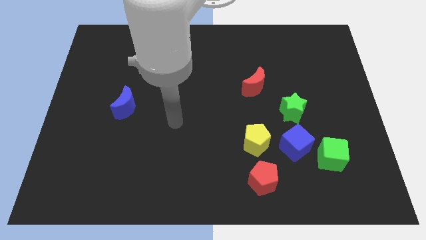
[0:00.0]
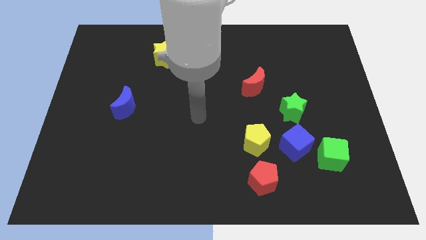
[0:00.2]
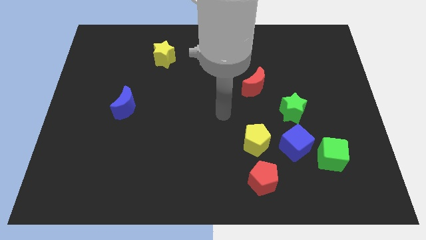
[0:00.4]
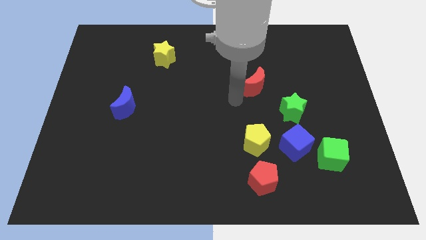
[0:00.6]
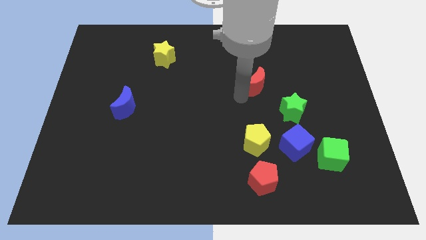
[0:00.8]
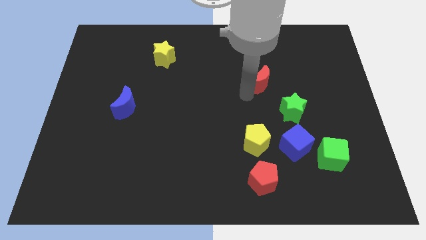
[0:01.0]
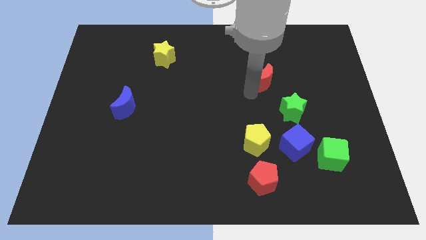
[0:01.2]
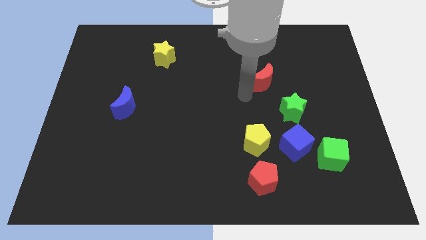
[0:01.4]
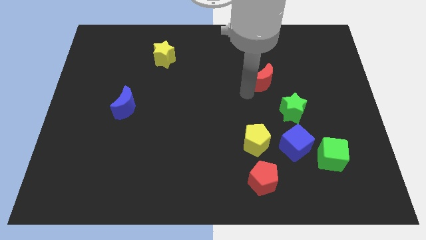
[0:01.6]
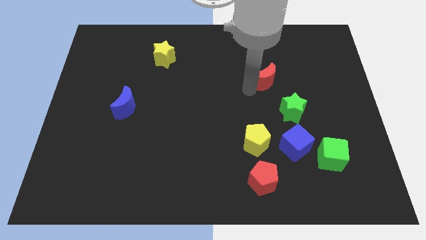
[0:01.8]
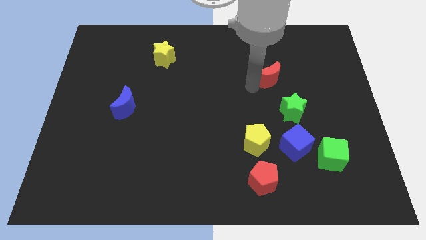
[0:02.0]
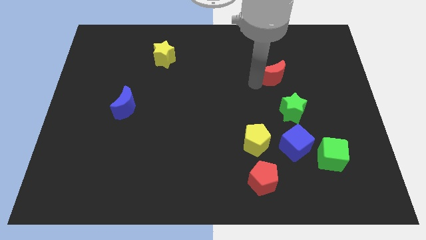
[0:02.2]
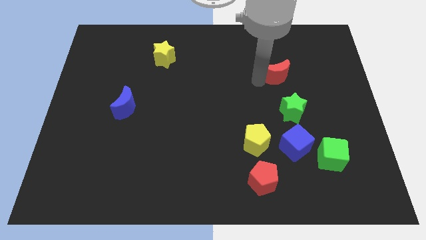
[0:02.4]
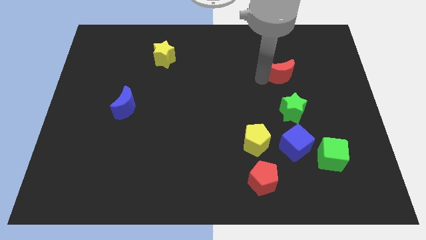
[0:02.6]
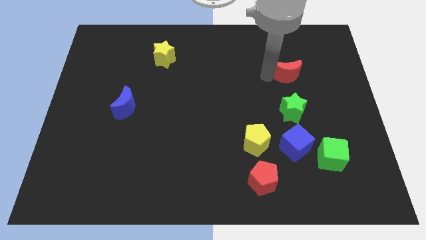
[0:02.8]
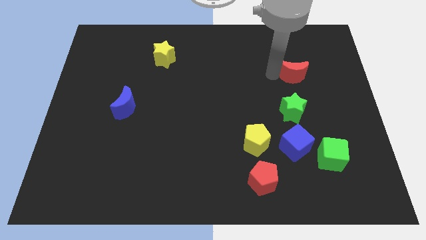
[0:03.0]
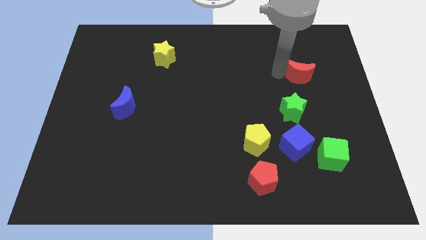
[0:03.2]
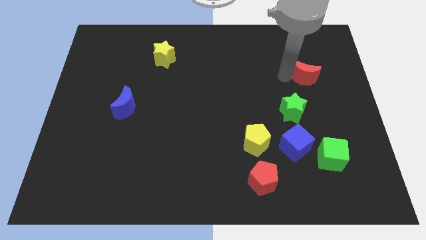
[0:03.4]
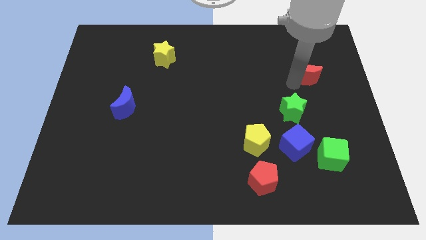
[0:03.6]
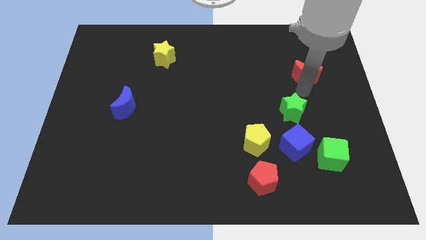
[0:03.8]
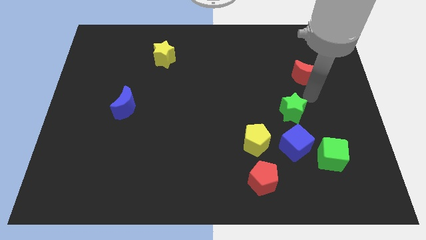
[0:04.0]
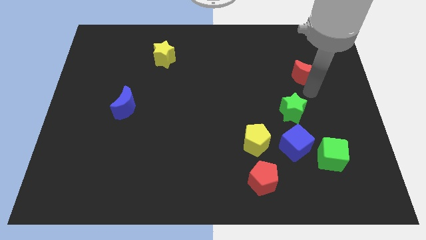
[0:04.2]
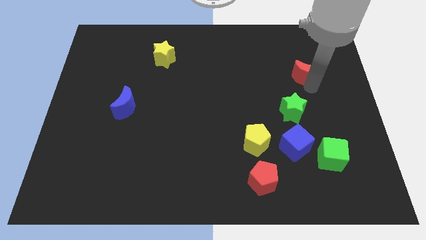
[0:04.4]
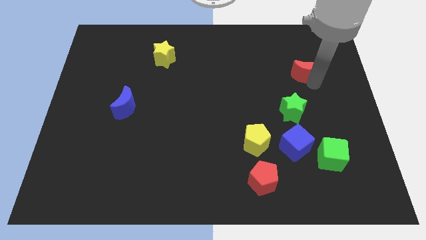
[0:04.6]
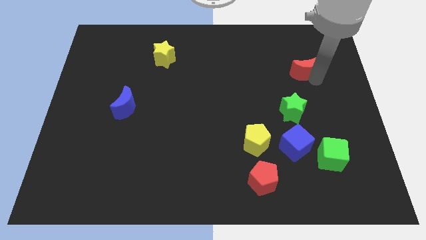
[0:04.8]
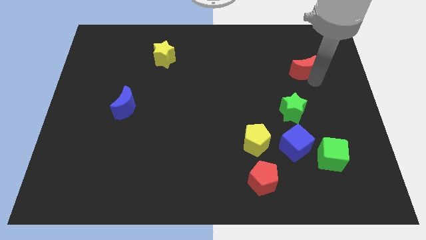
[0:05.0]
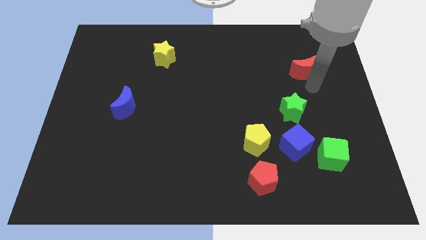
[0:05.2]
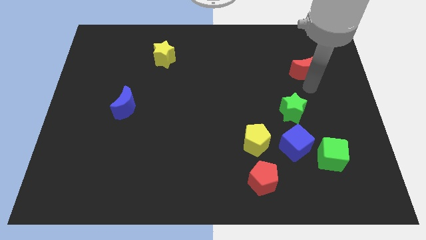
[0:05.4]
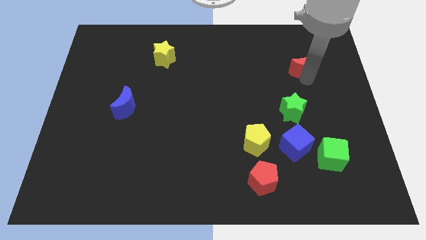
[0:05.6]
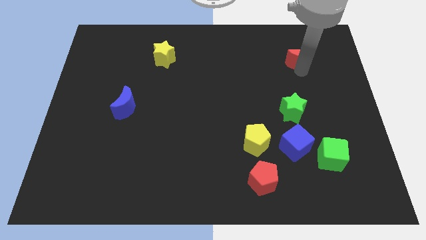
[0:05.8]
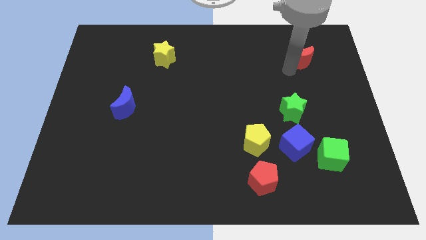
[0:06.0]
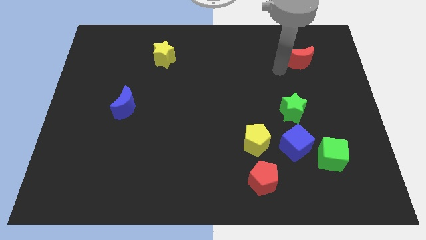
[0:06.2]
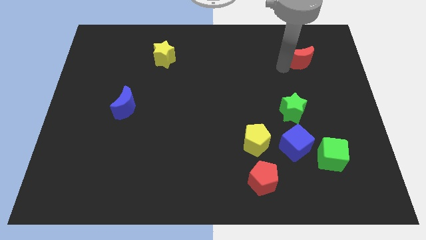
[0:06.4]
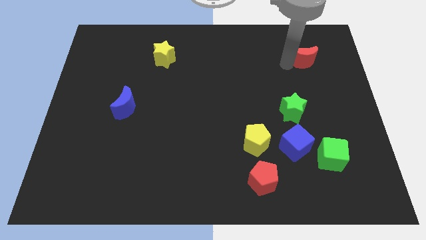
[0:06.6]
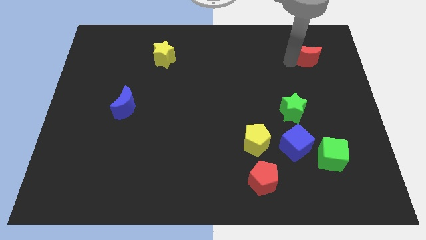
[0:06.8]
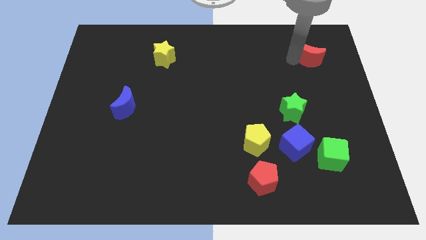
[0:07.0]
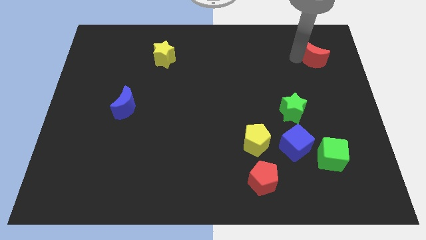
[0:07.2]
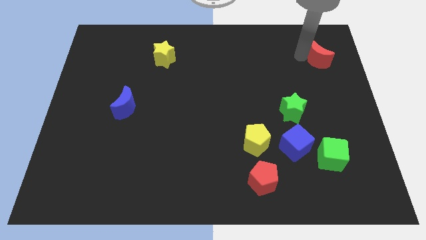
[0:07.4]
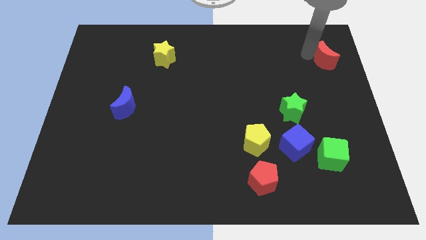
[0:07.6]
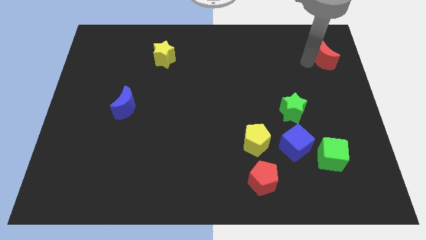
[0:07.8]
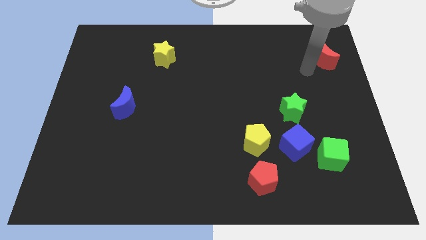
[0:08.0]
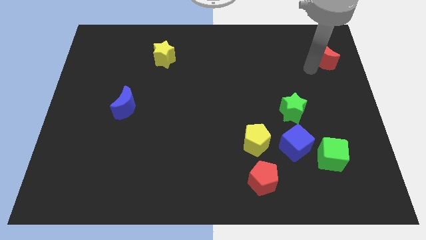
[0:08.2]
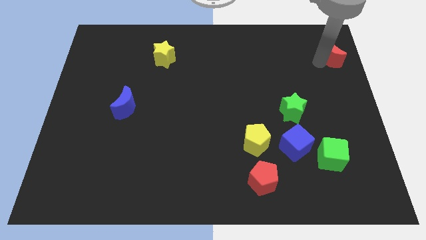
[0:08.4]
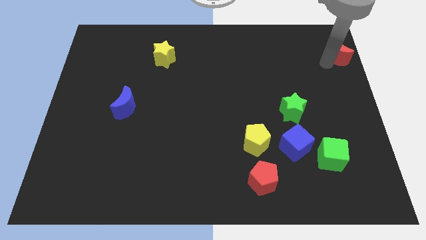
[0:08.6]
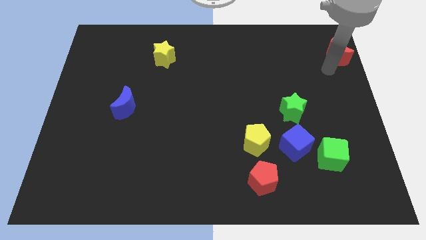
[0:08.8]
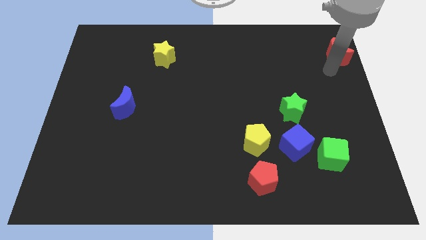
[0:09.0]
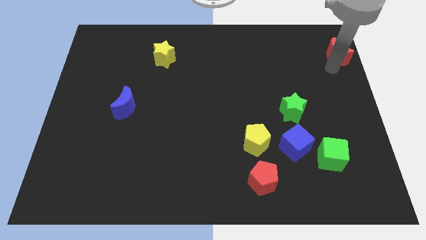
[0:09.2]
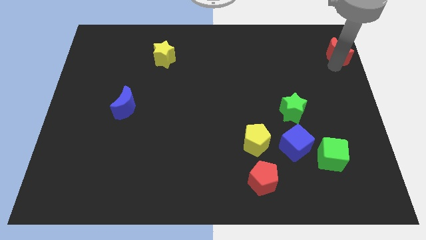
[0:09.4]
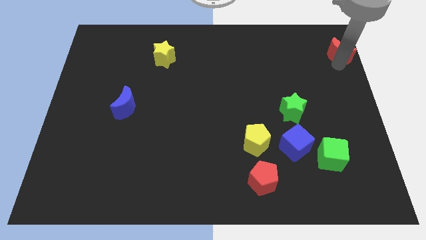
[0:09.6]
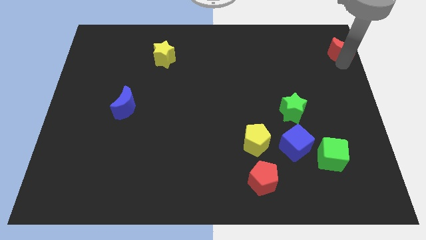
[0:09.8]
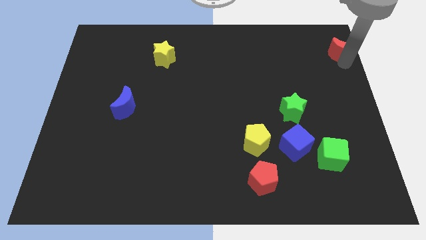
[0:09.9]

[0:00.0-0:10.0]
push the red moon to the top right

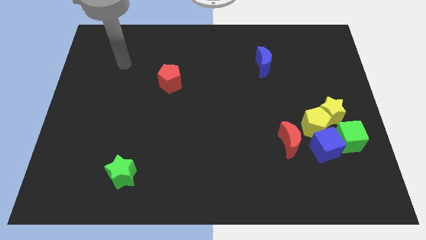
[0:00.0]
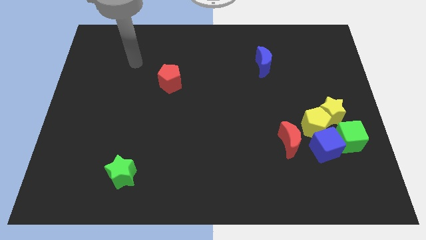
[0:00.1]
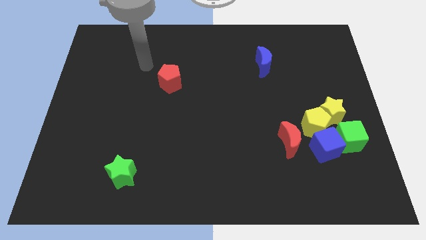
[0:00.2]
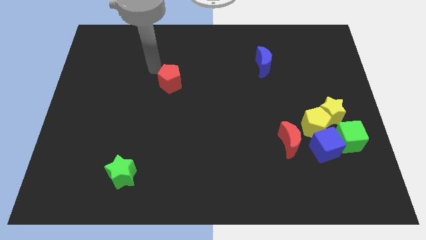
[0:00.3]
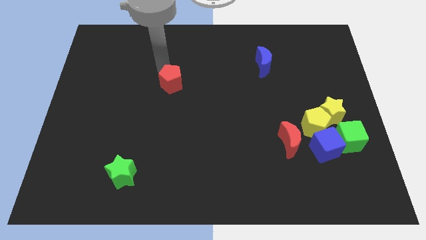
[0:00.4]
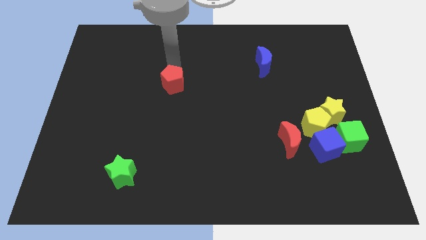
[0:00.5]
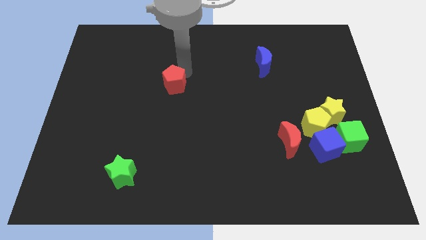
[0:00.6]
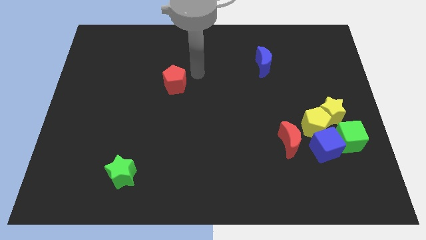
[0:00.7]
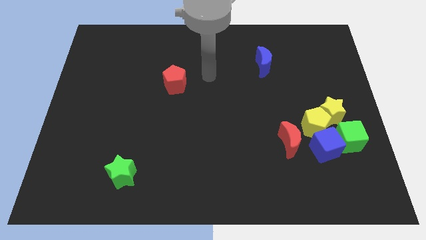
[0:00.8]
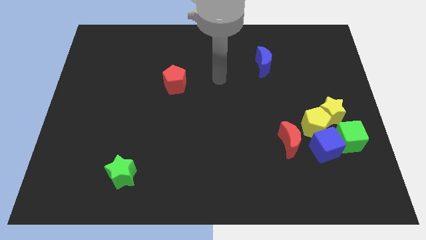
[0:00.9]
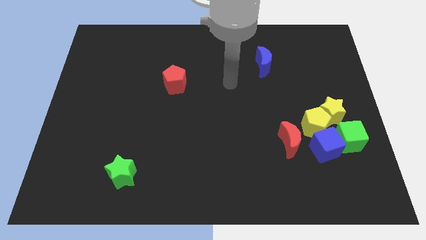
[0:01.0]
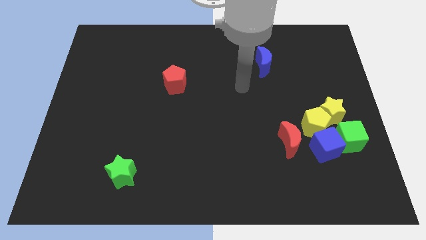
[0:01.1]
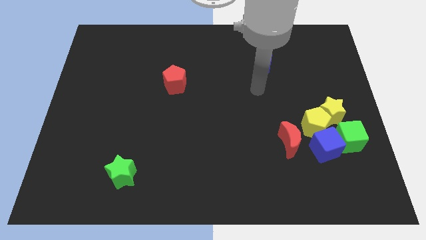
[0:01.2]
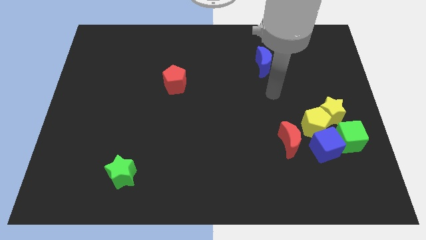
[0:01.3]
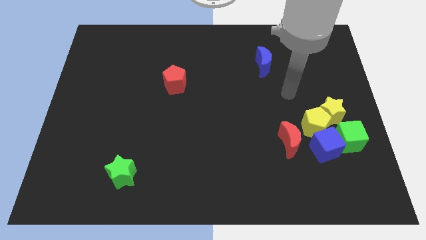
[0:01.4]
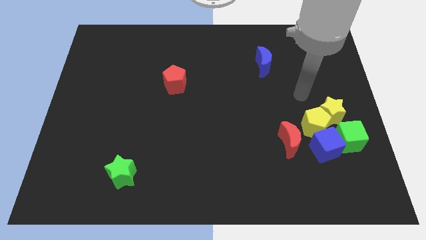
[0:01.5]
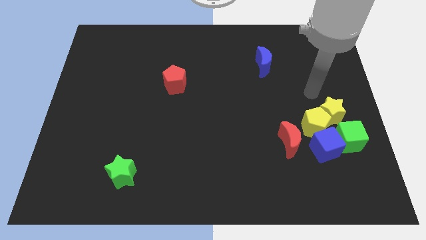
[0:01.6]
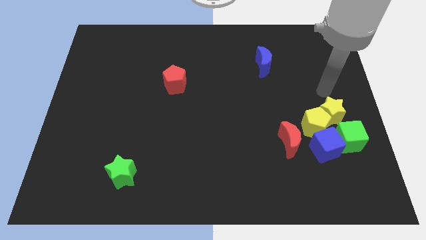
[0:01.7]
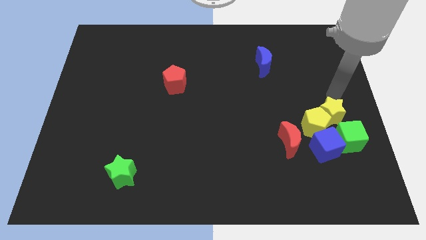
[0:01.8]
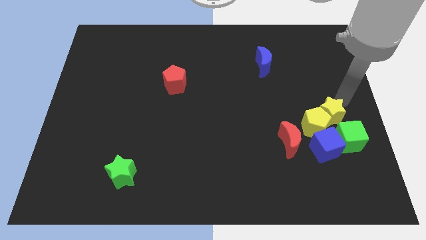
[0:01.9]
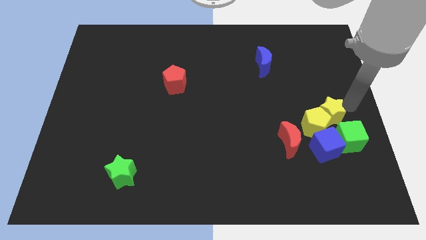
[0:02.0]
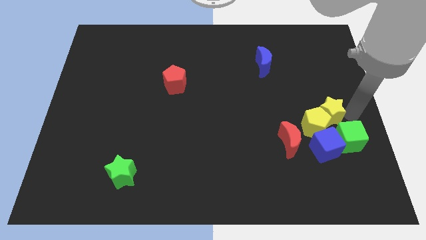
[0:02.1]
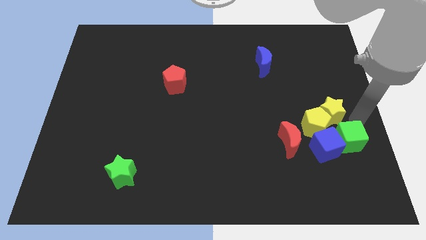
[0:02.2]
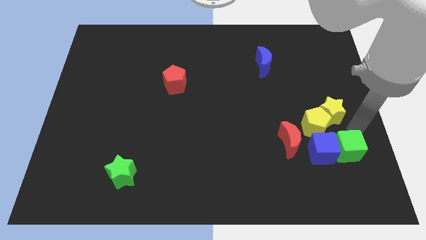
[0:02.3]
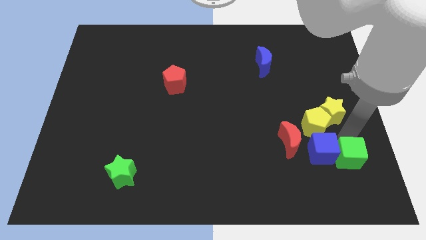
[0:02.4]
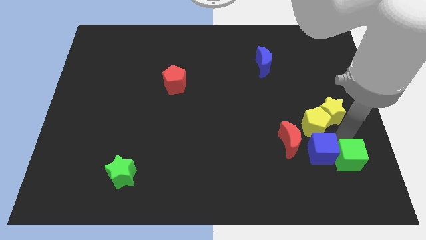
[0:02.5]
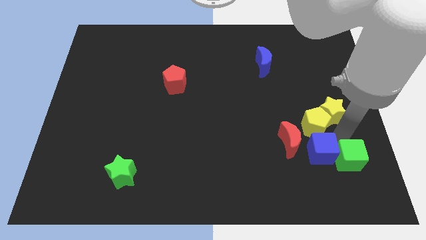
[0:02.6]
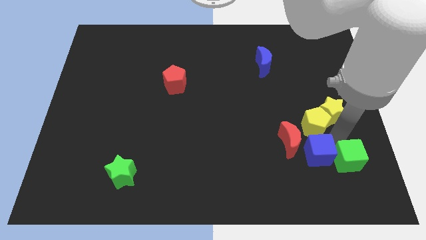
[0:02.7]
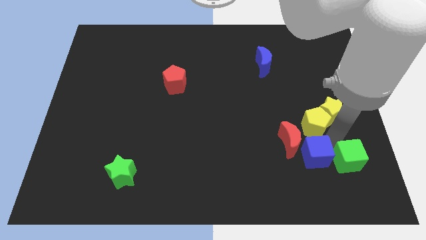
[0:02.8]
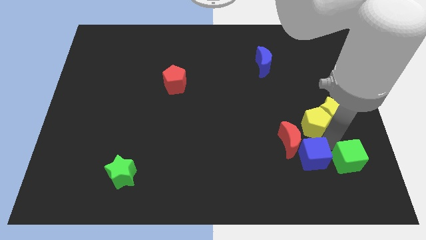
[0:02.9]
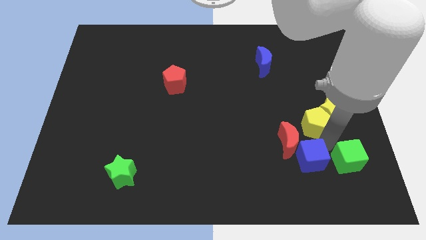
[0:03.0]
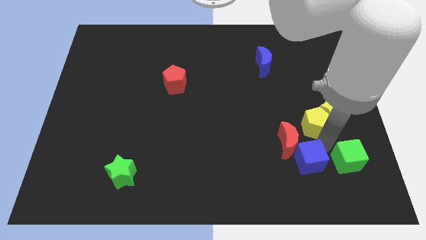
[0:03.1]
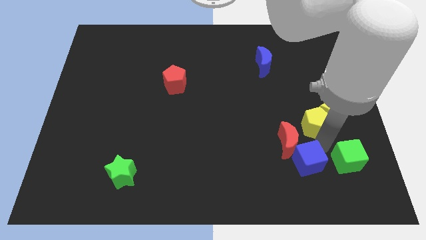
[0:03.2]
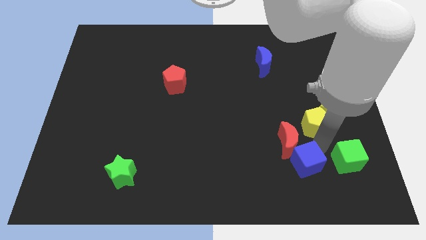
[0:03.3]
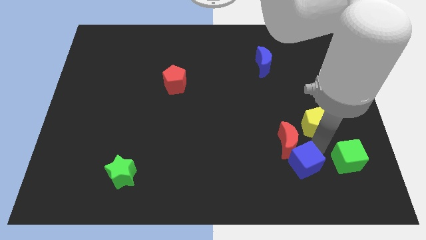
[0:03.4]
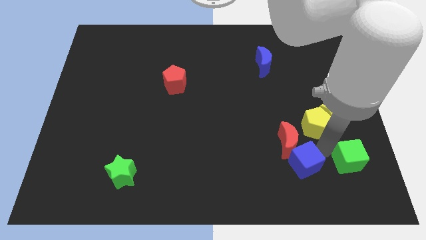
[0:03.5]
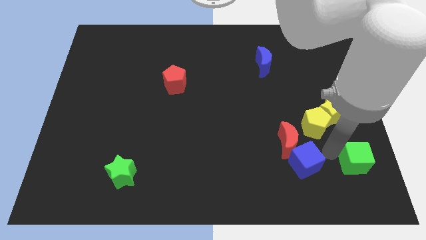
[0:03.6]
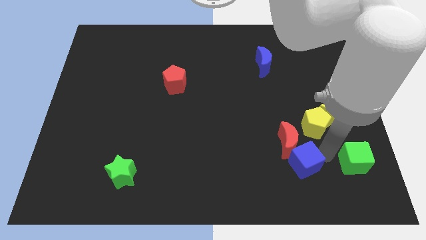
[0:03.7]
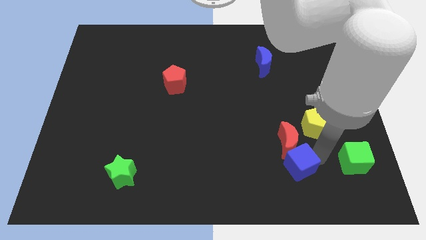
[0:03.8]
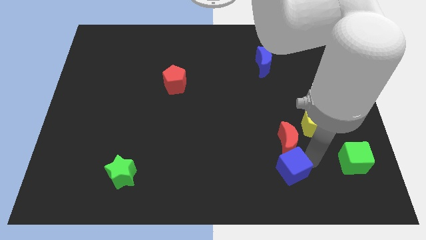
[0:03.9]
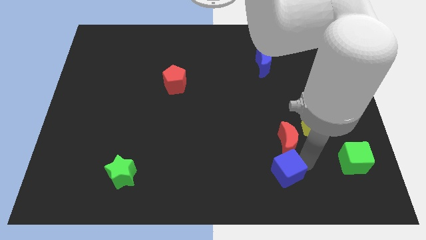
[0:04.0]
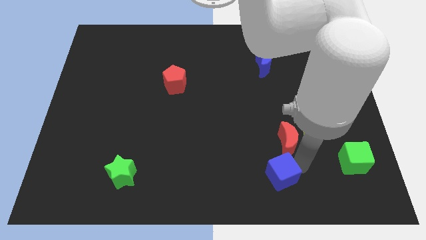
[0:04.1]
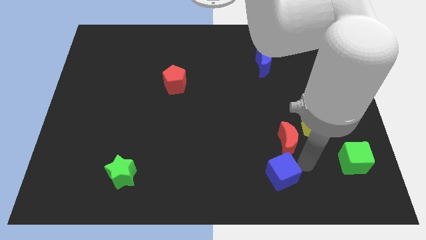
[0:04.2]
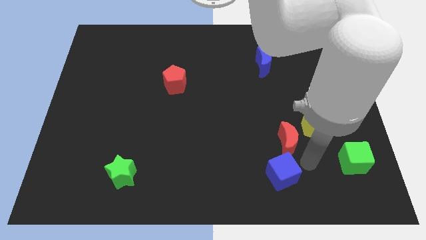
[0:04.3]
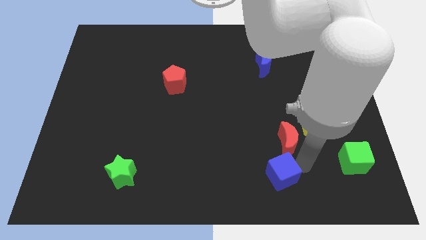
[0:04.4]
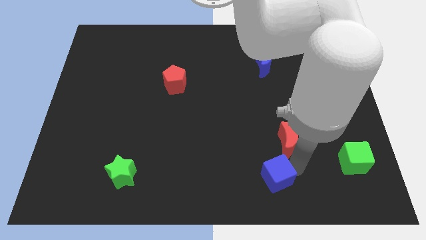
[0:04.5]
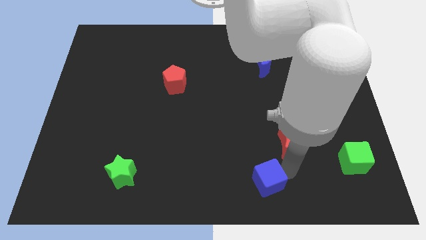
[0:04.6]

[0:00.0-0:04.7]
put the blue cube to the bottom side
